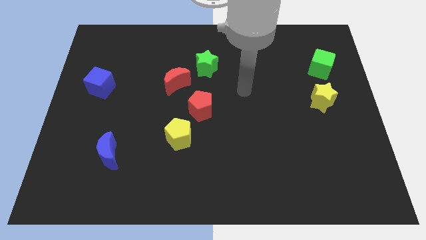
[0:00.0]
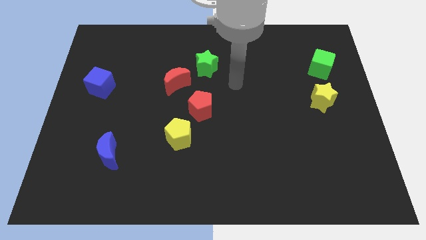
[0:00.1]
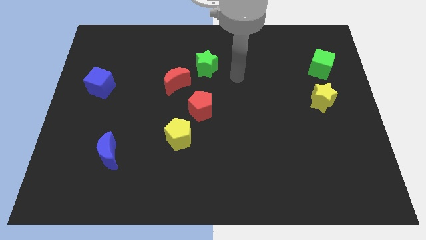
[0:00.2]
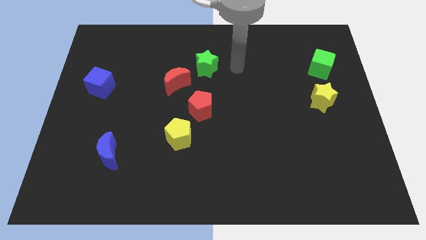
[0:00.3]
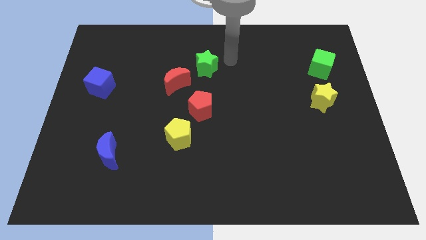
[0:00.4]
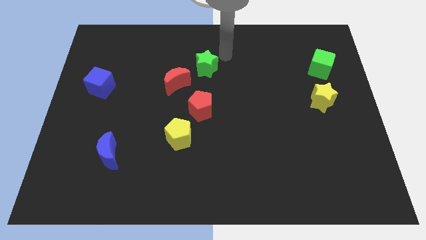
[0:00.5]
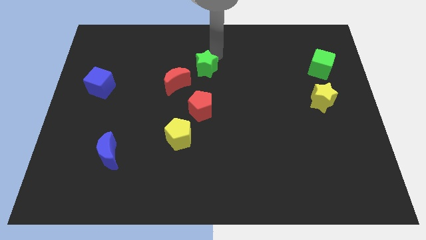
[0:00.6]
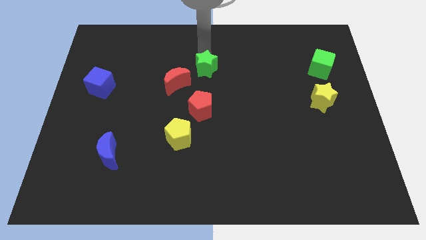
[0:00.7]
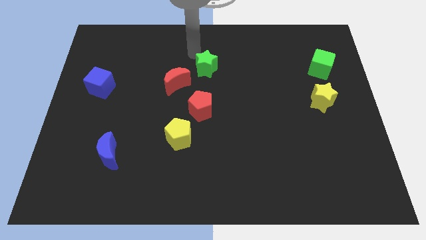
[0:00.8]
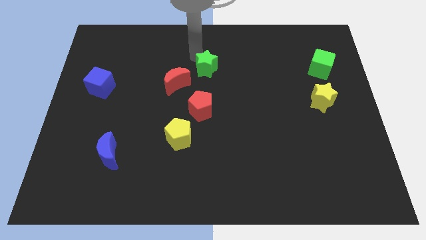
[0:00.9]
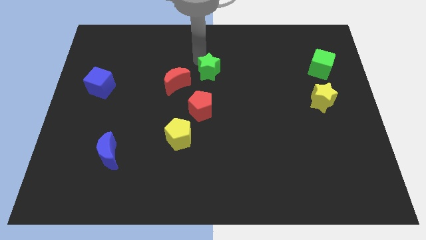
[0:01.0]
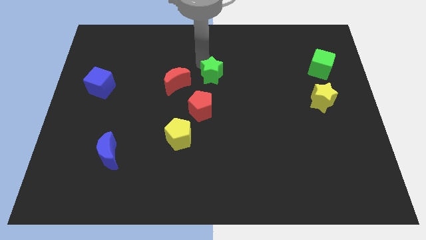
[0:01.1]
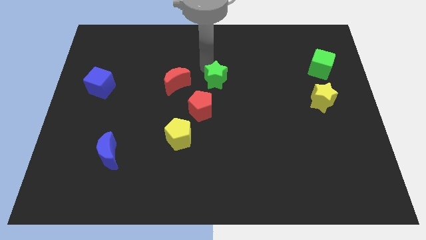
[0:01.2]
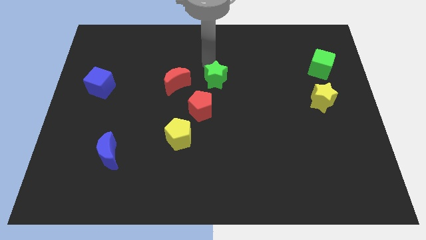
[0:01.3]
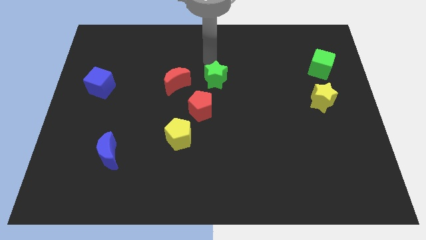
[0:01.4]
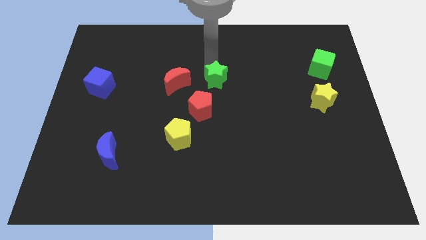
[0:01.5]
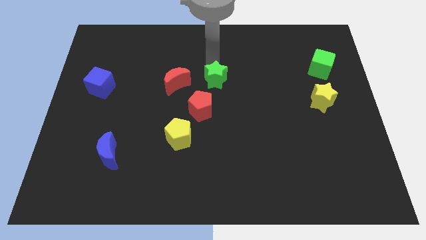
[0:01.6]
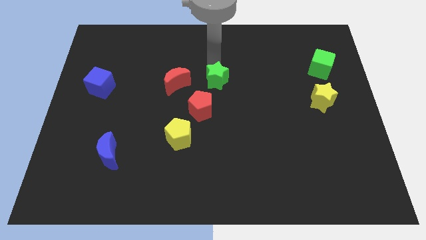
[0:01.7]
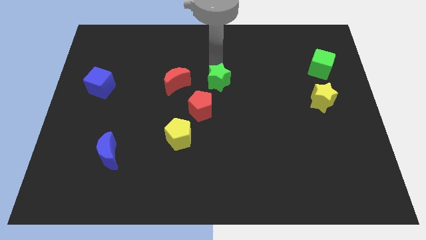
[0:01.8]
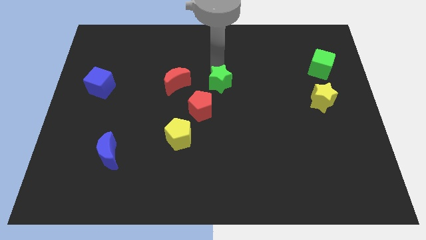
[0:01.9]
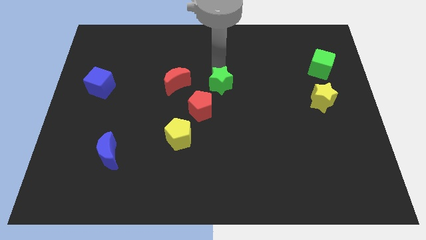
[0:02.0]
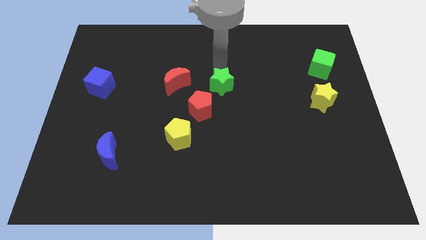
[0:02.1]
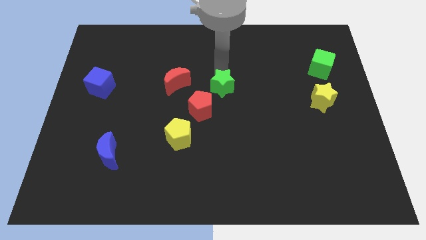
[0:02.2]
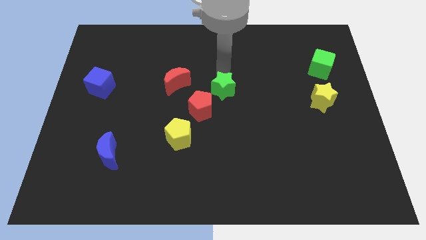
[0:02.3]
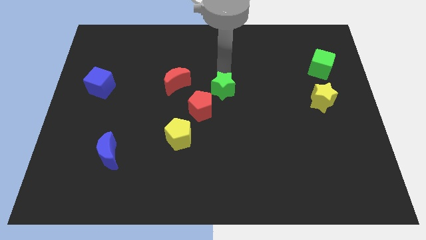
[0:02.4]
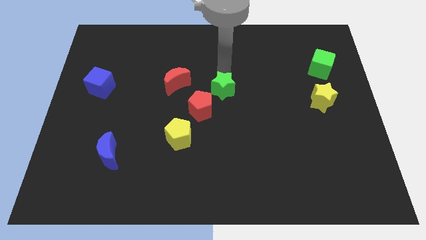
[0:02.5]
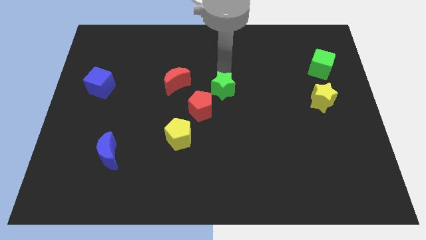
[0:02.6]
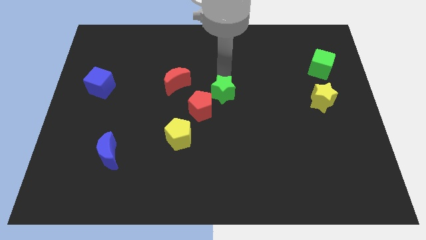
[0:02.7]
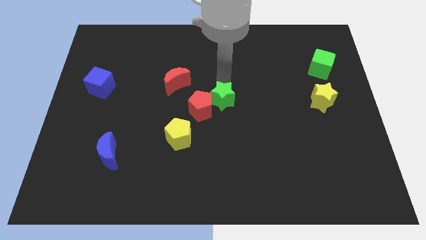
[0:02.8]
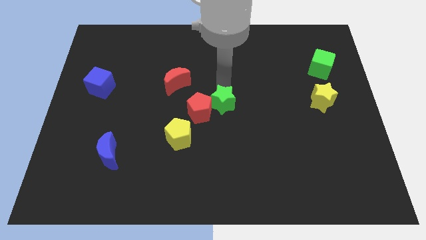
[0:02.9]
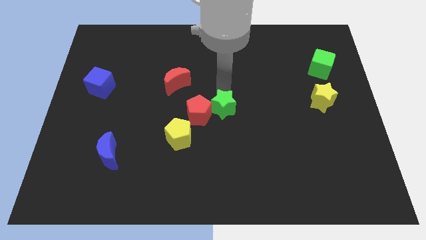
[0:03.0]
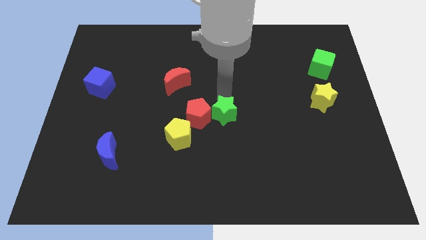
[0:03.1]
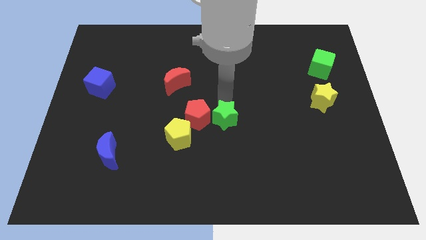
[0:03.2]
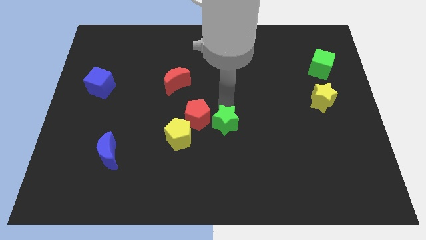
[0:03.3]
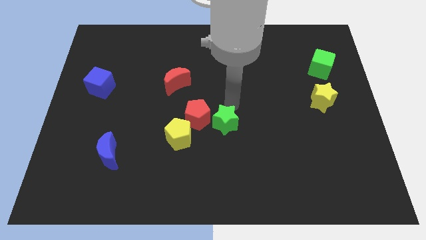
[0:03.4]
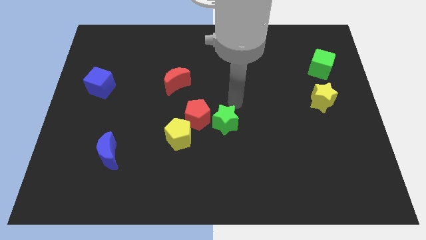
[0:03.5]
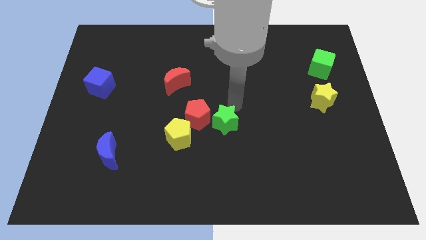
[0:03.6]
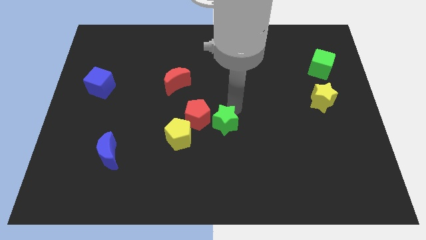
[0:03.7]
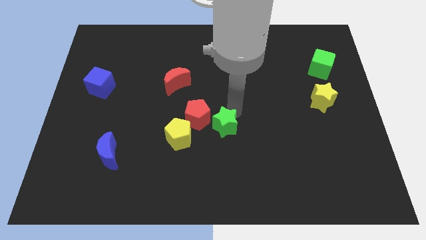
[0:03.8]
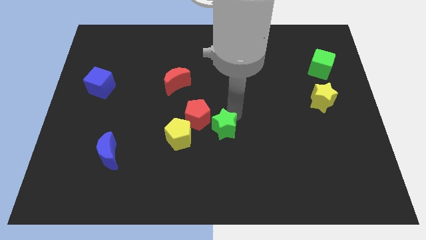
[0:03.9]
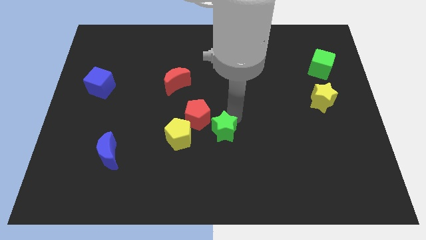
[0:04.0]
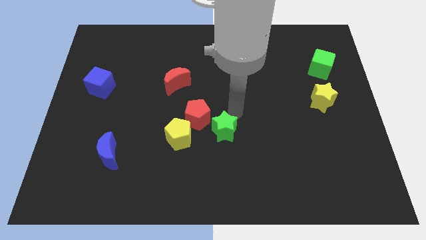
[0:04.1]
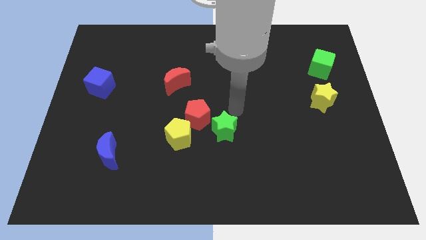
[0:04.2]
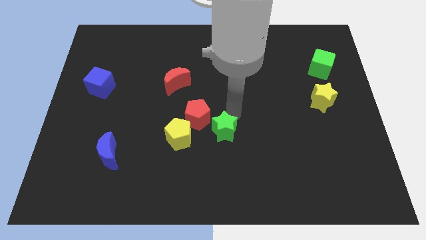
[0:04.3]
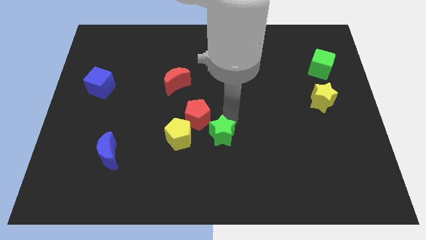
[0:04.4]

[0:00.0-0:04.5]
slide the green star down

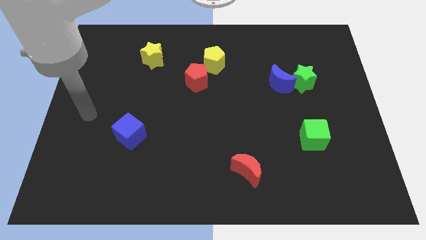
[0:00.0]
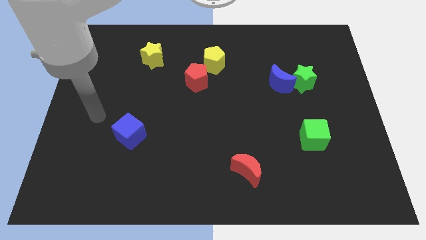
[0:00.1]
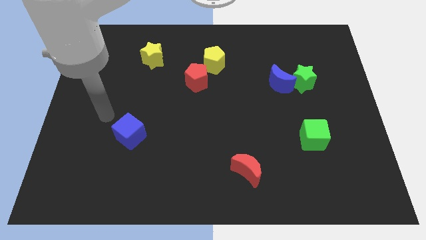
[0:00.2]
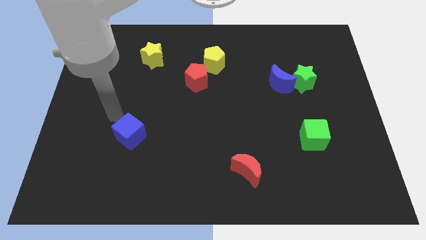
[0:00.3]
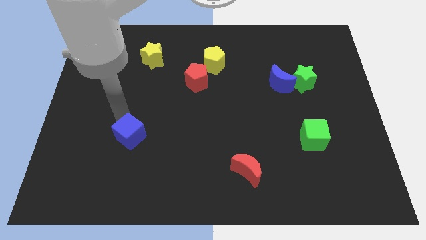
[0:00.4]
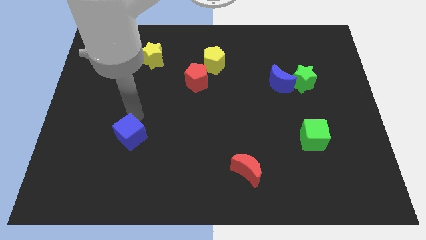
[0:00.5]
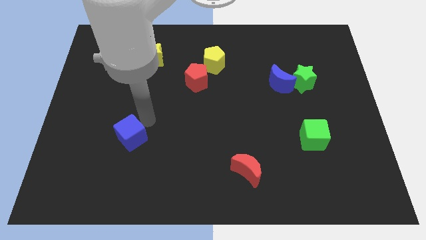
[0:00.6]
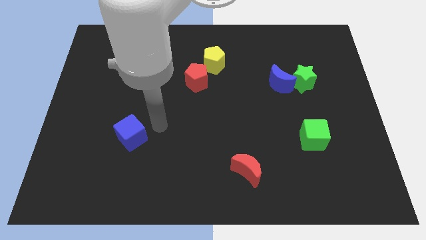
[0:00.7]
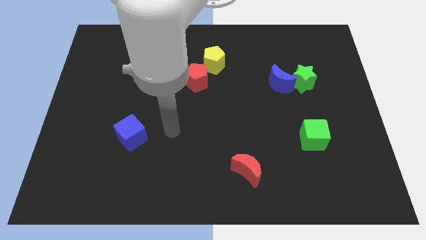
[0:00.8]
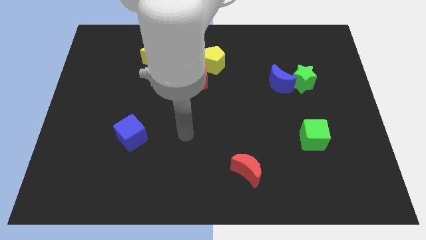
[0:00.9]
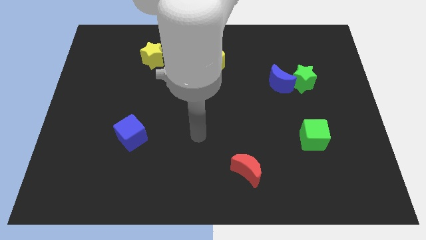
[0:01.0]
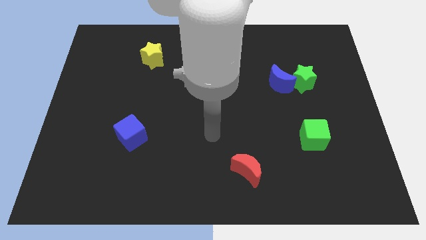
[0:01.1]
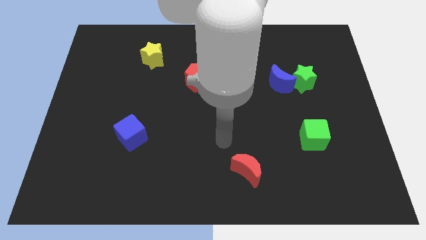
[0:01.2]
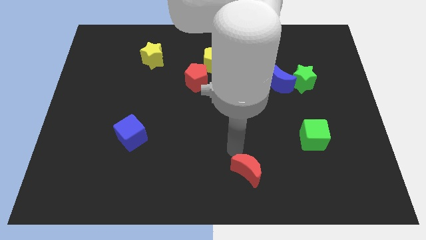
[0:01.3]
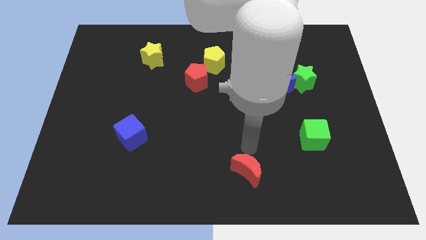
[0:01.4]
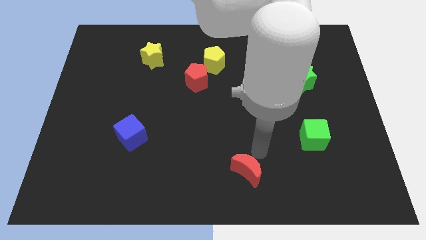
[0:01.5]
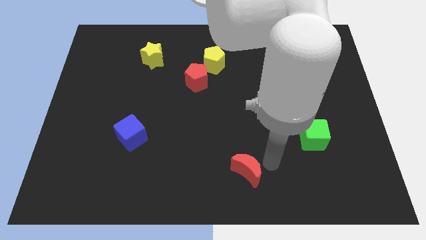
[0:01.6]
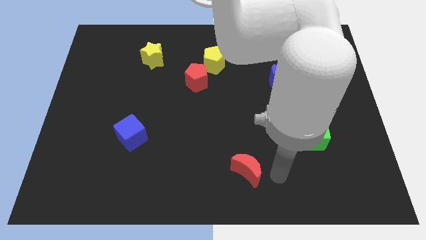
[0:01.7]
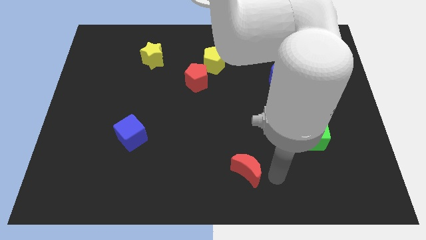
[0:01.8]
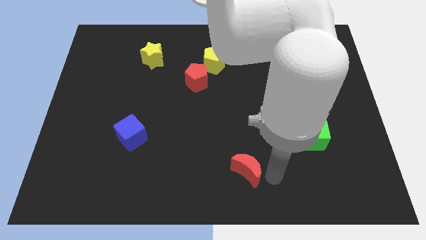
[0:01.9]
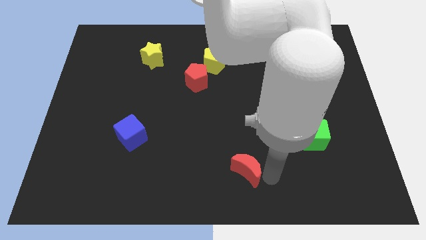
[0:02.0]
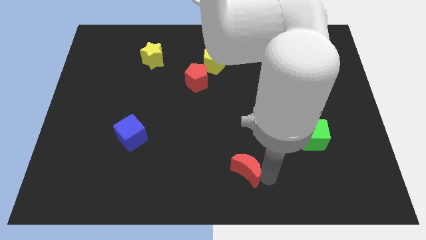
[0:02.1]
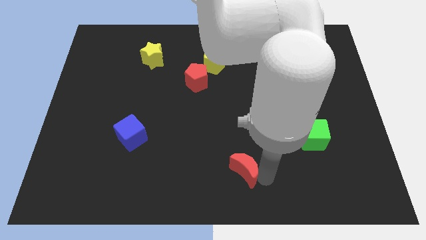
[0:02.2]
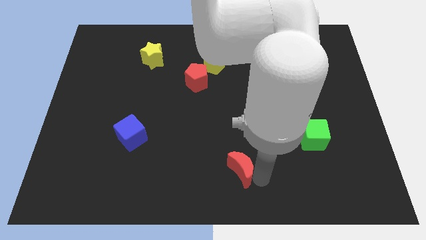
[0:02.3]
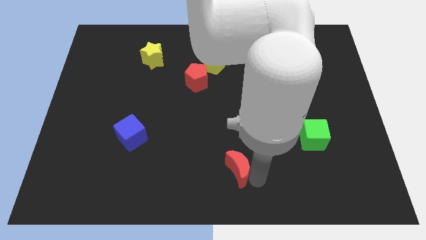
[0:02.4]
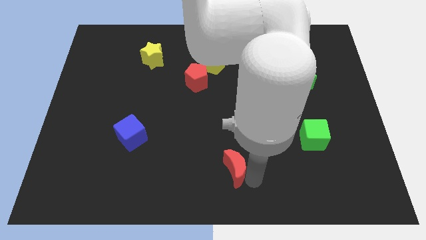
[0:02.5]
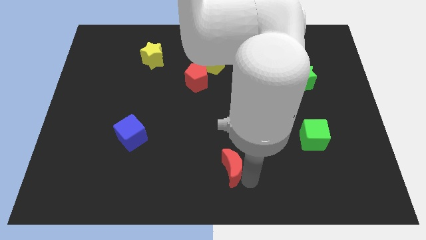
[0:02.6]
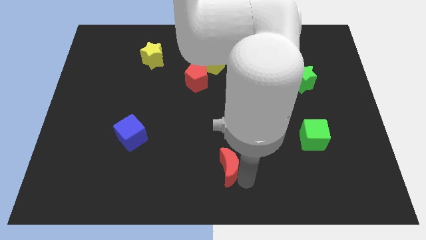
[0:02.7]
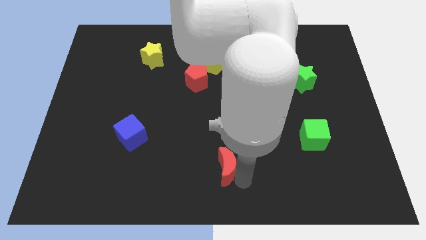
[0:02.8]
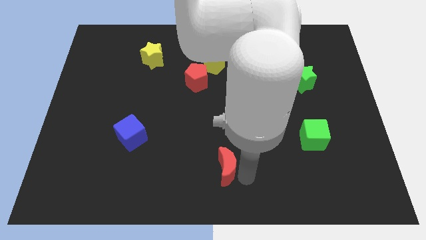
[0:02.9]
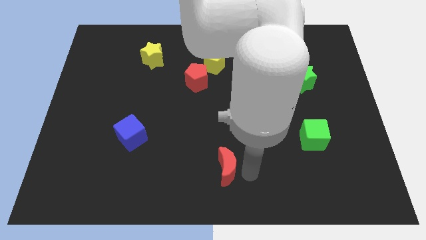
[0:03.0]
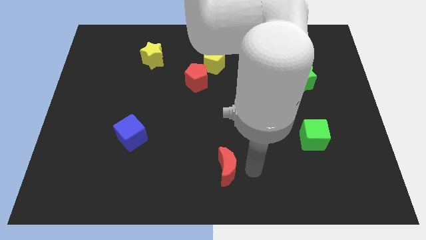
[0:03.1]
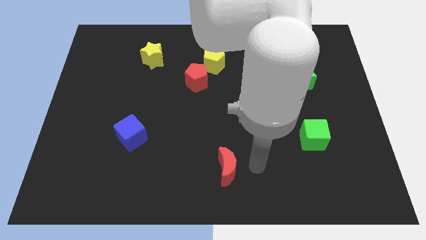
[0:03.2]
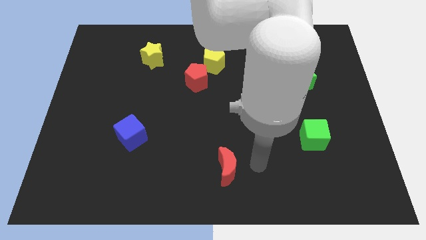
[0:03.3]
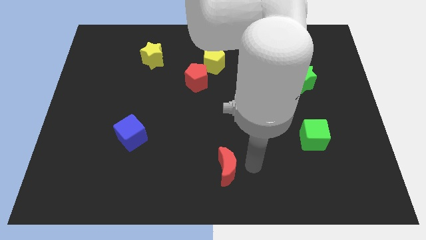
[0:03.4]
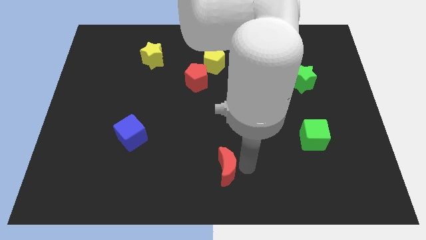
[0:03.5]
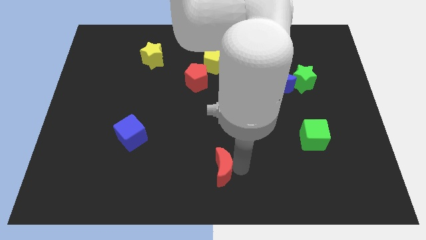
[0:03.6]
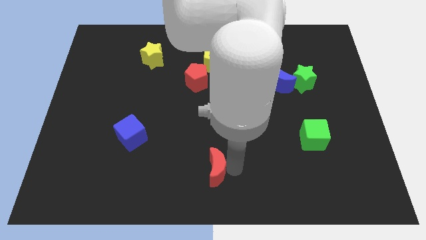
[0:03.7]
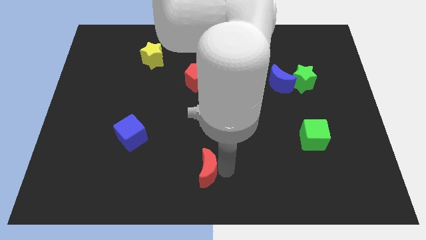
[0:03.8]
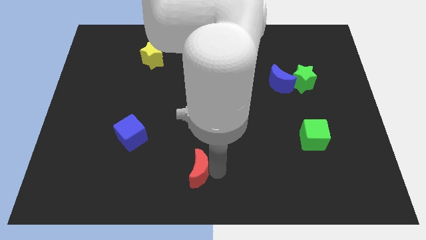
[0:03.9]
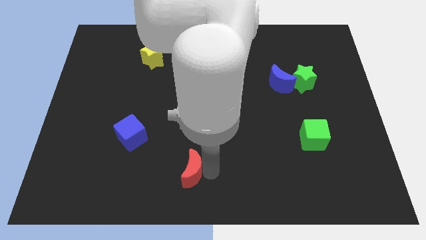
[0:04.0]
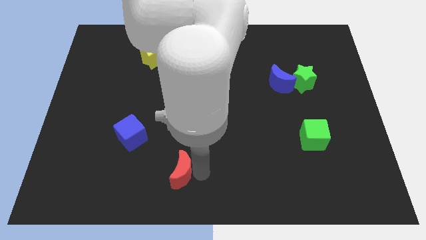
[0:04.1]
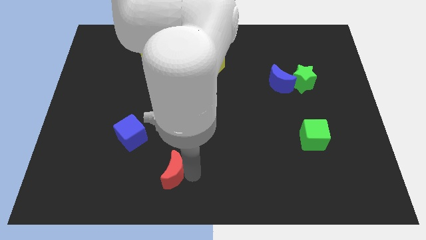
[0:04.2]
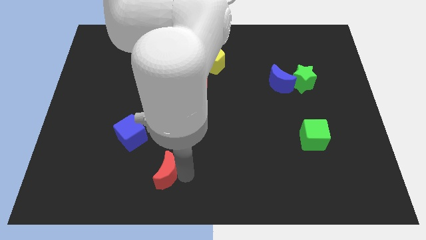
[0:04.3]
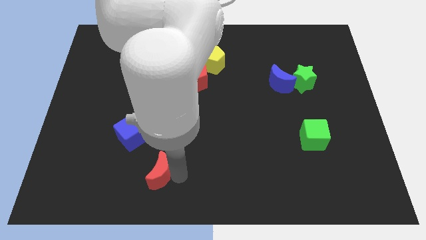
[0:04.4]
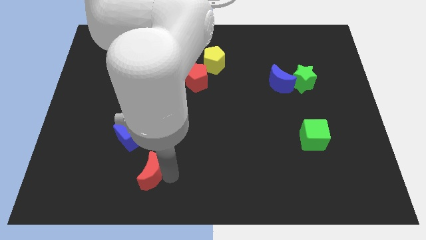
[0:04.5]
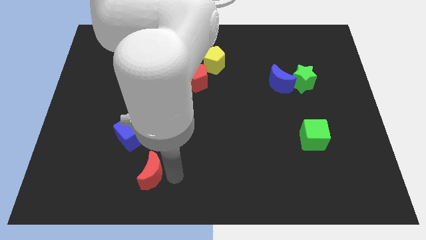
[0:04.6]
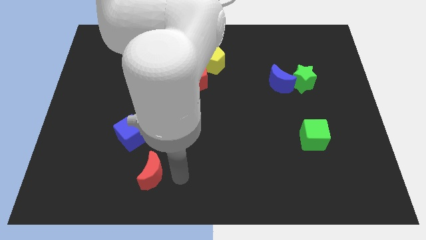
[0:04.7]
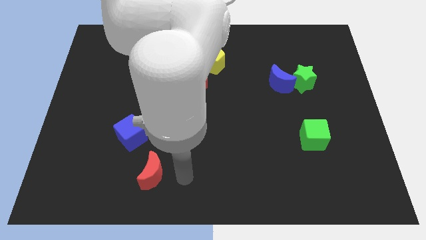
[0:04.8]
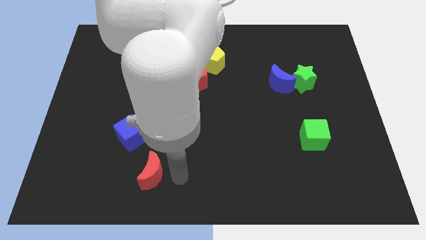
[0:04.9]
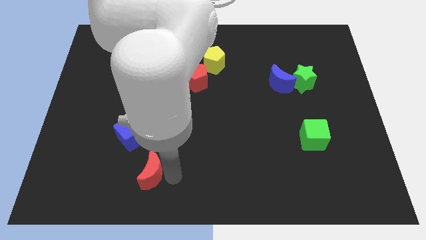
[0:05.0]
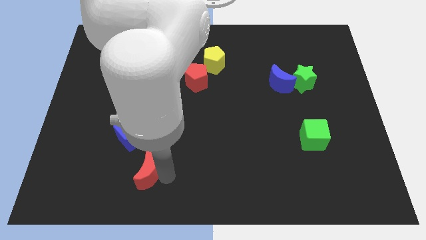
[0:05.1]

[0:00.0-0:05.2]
slide the red moon to the left
